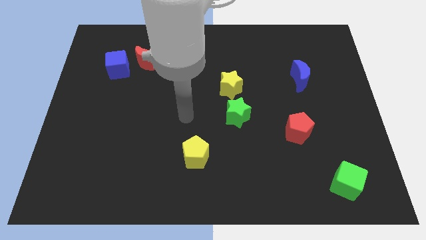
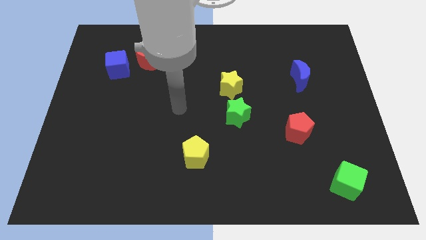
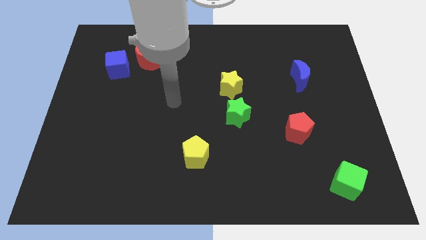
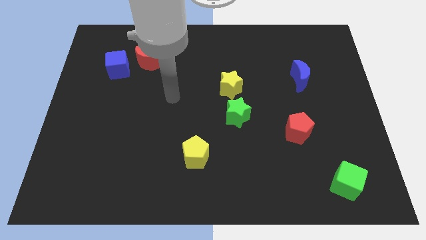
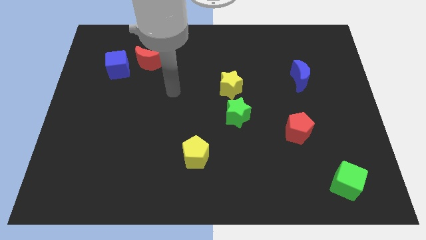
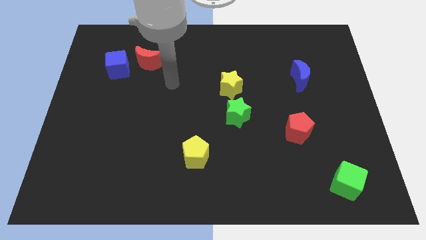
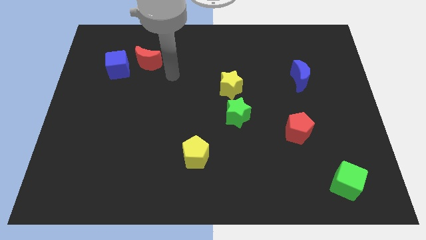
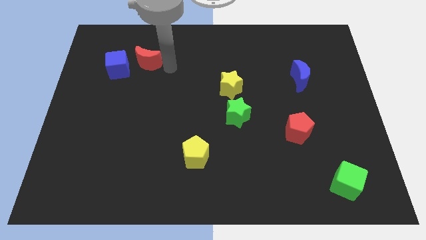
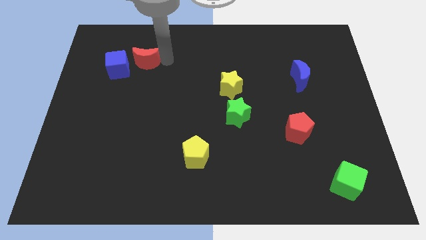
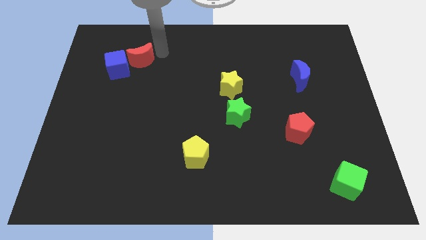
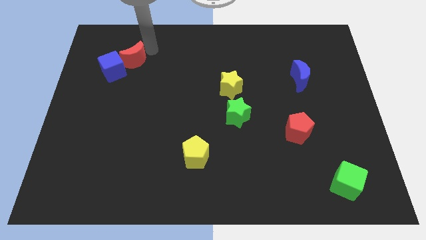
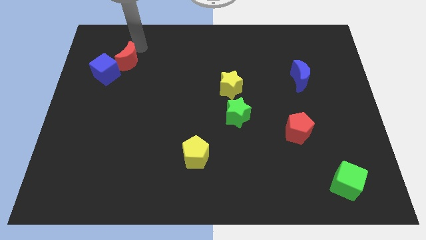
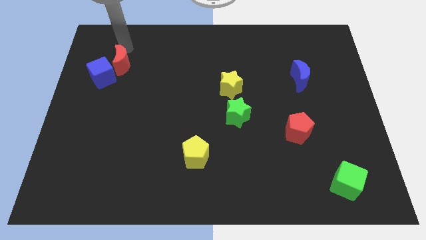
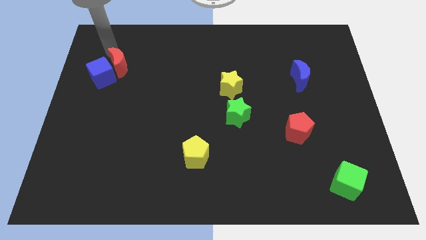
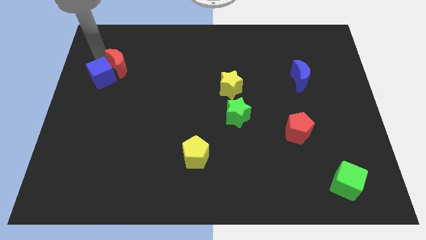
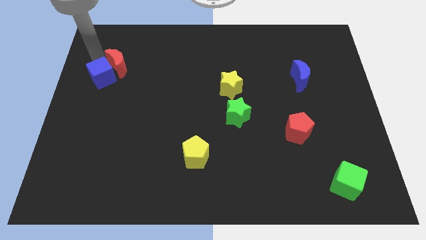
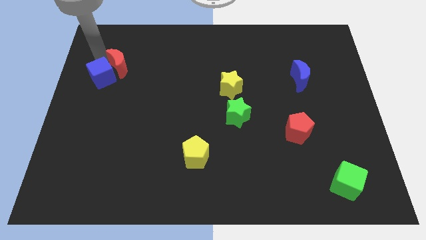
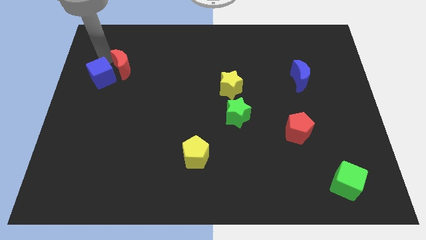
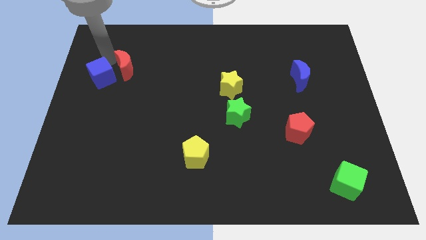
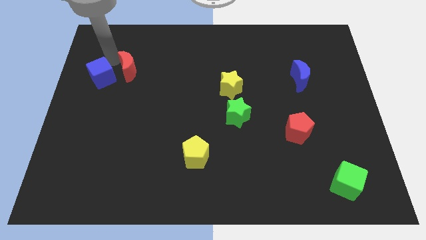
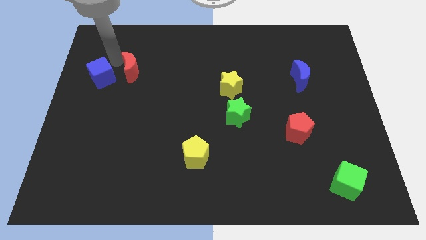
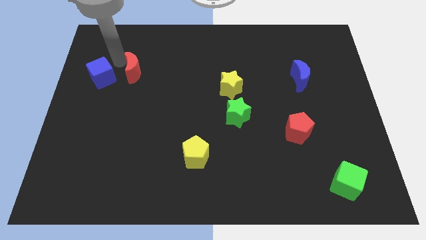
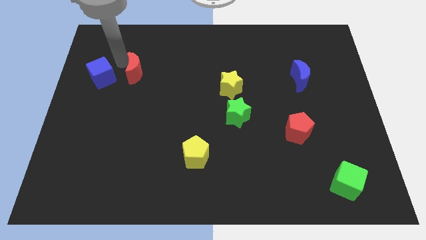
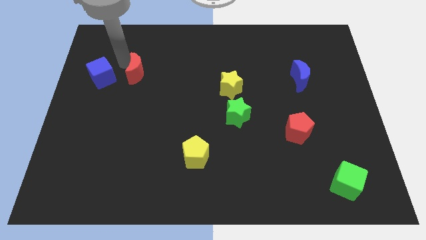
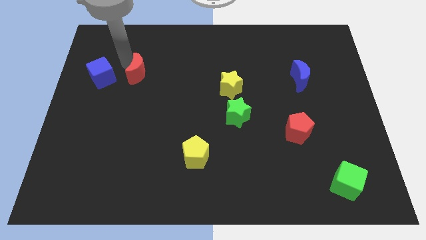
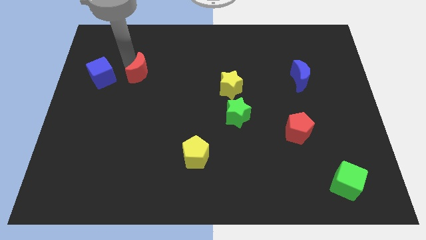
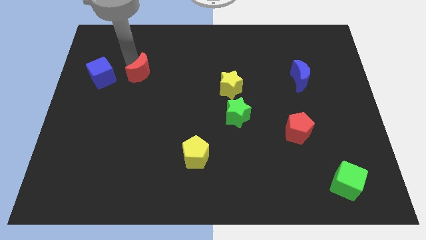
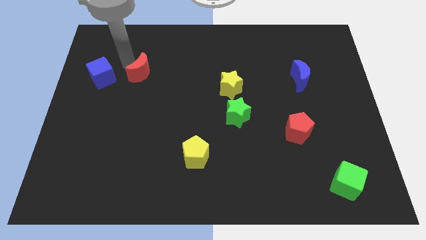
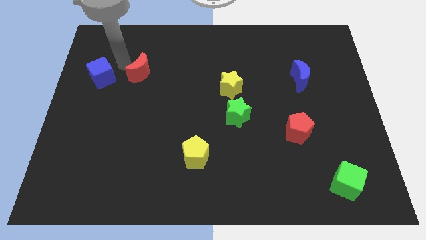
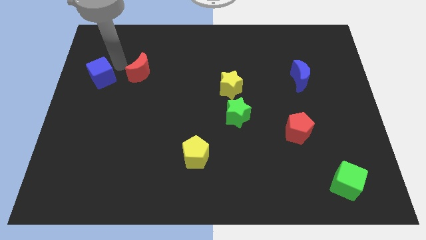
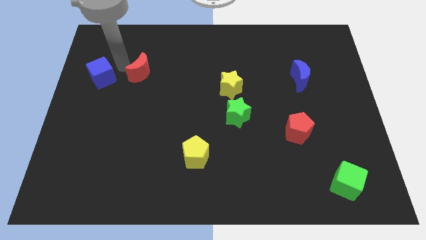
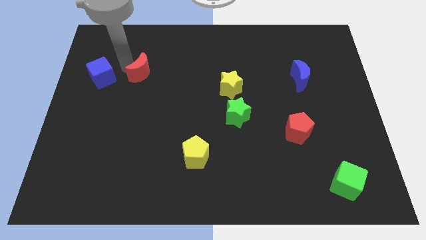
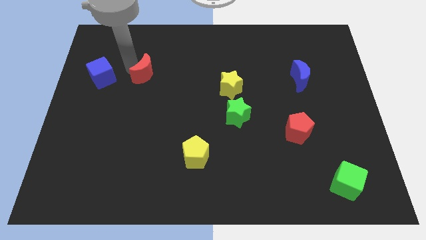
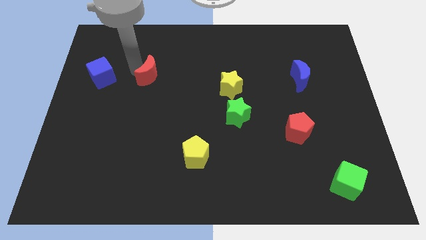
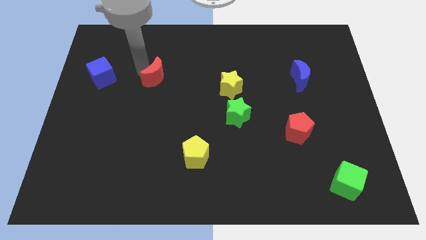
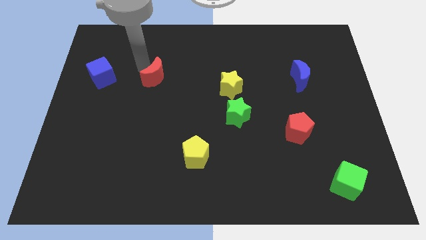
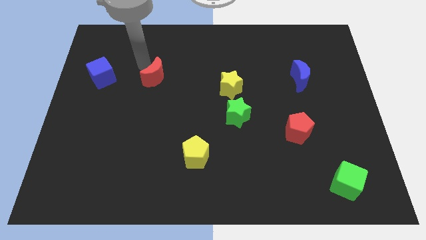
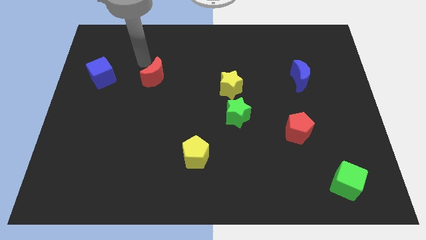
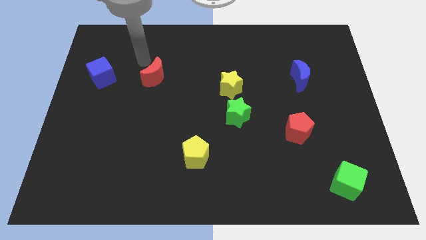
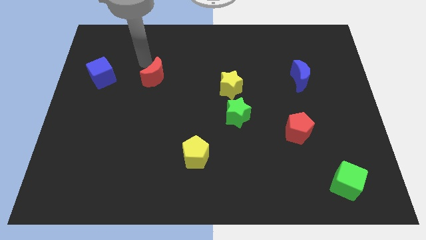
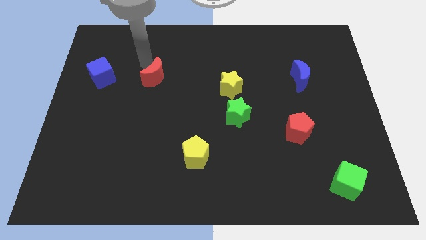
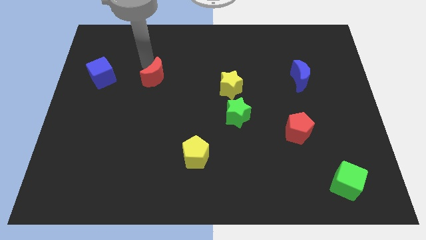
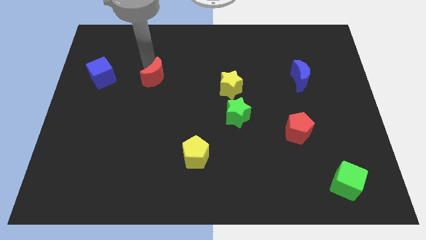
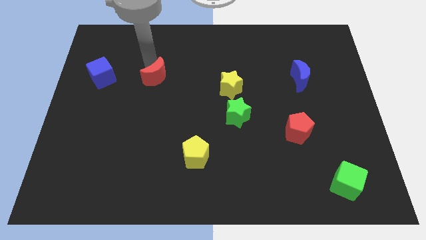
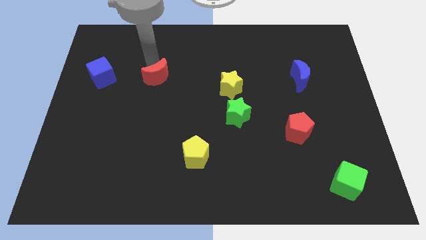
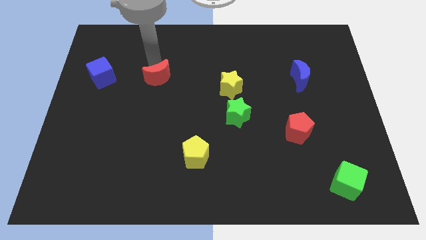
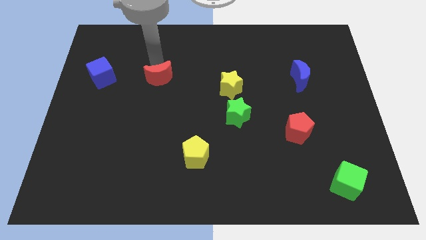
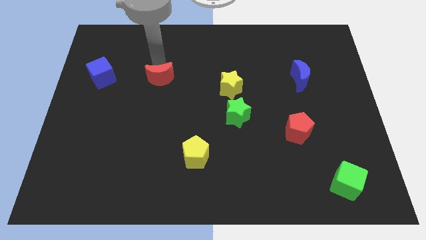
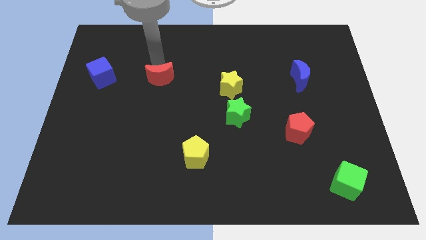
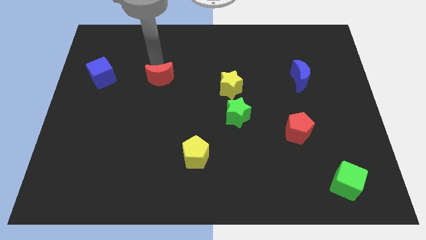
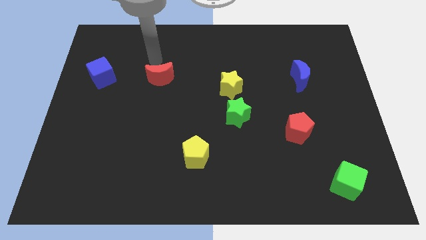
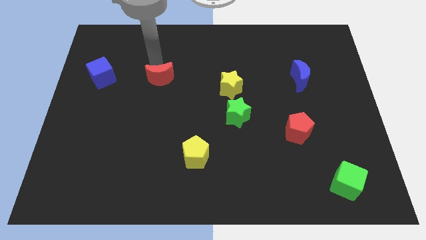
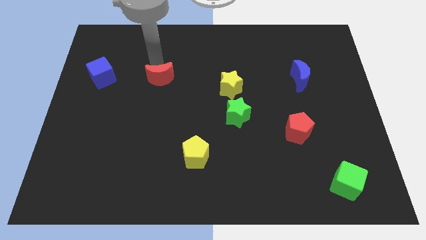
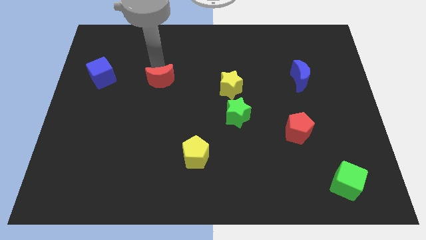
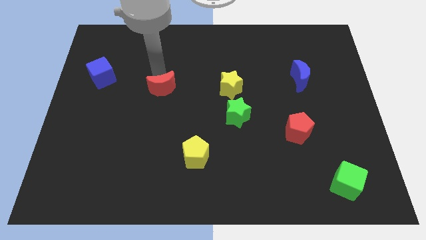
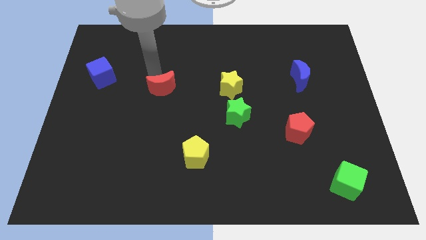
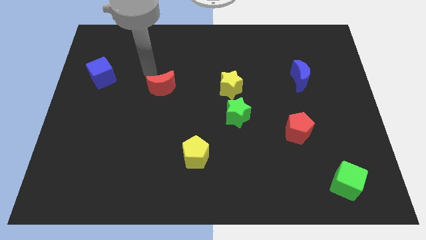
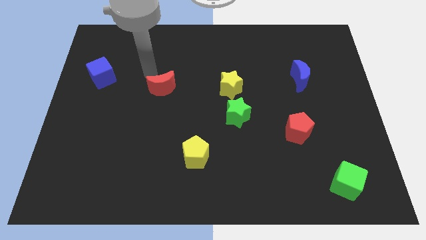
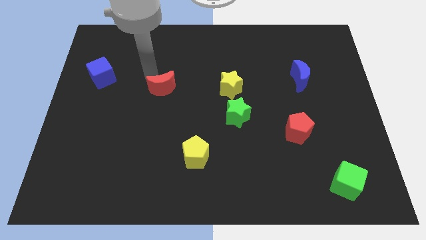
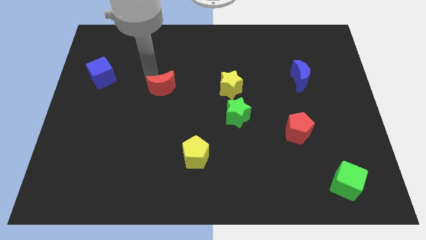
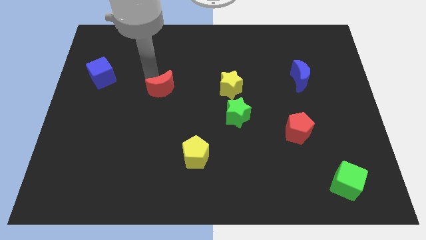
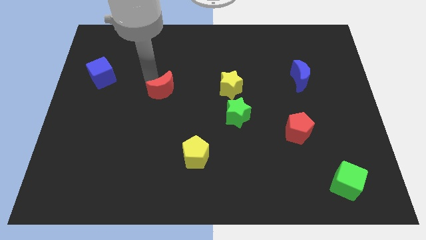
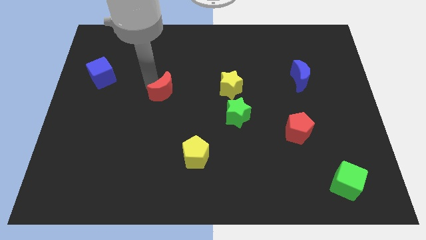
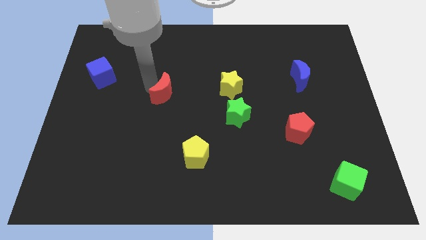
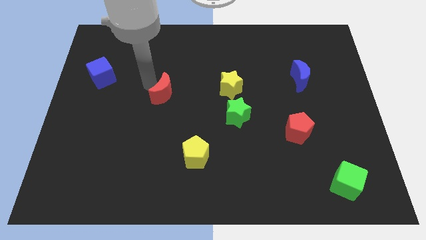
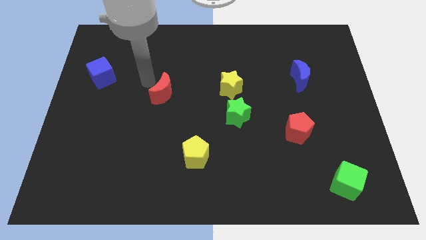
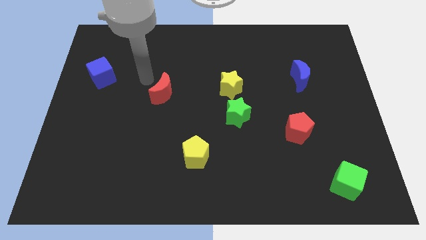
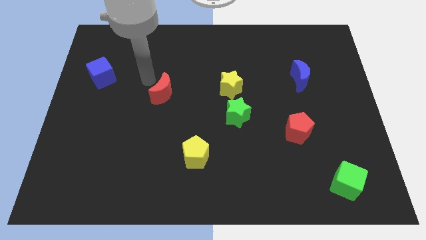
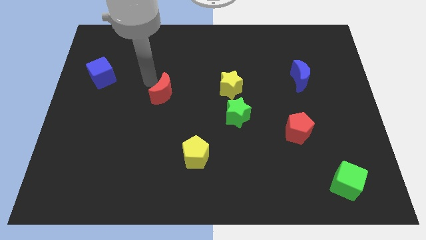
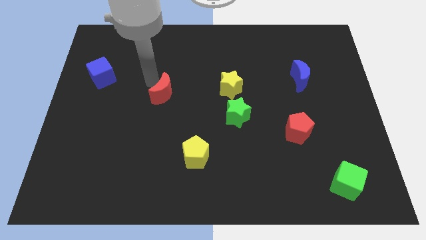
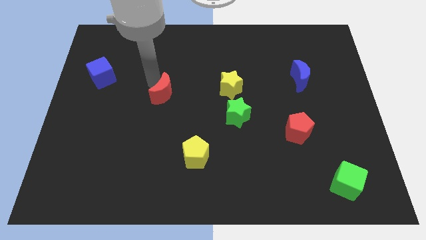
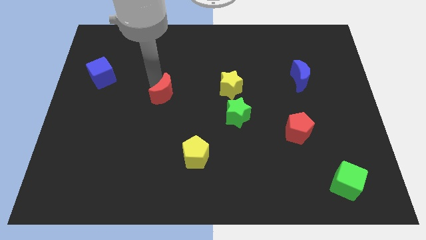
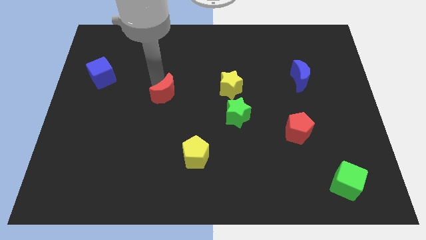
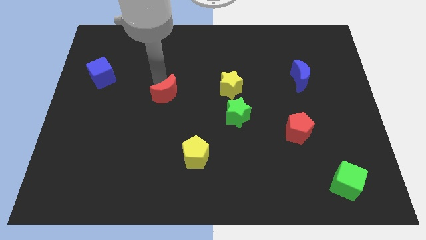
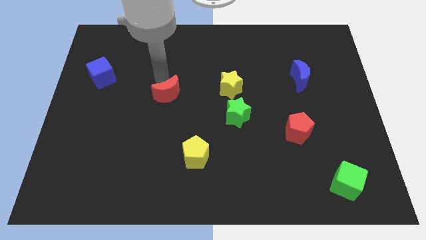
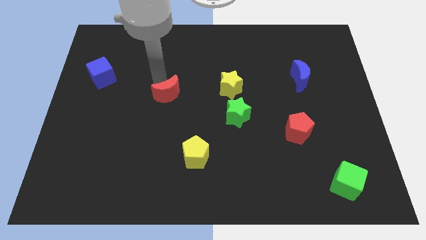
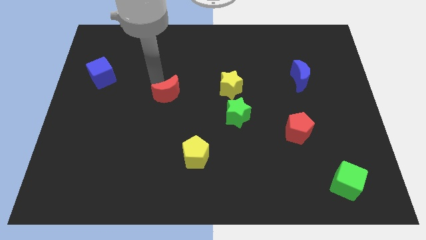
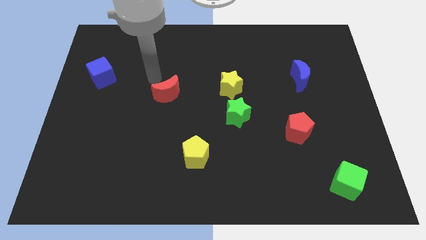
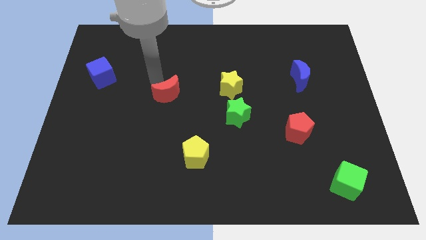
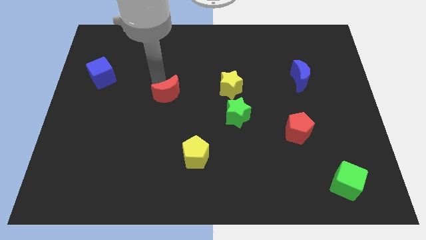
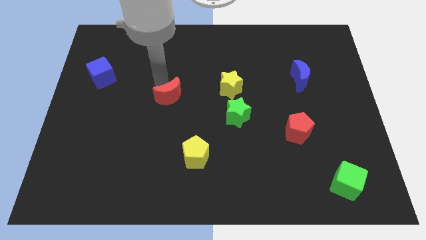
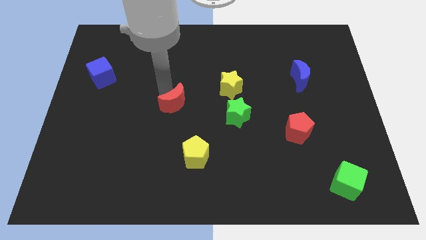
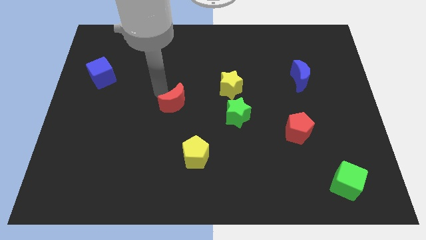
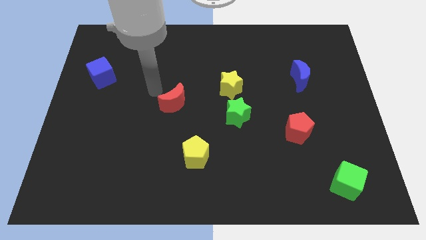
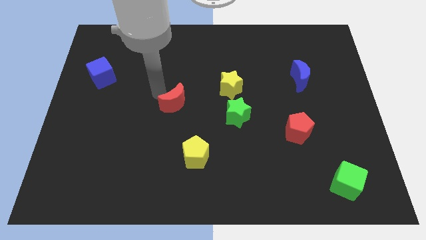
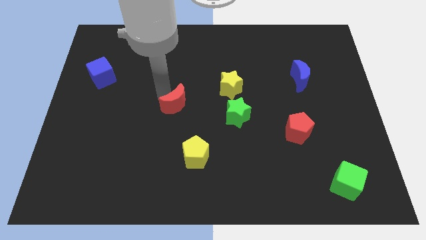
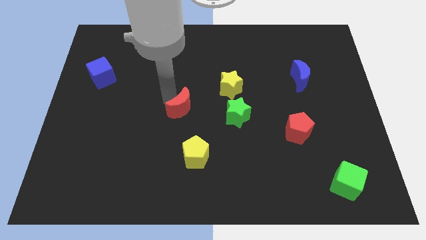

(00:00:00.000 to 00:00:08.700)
push the red moon above the yellow pentagon
